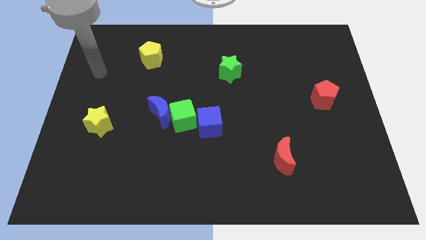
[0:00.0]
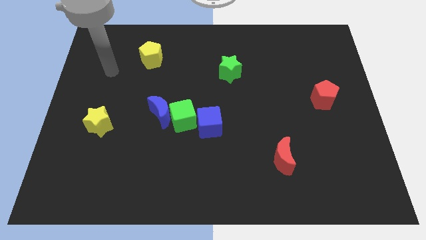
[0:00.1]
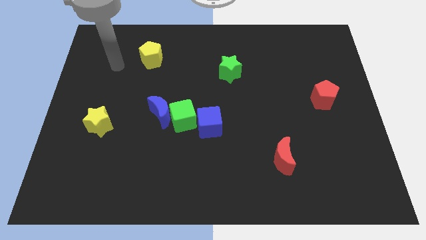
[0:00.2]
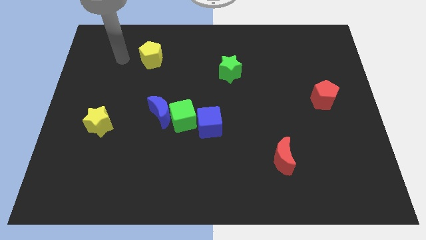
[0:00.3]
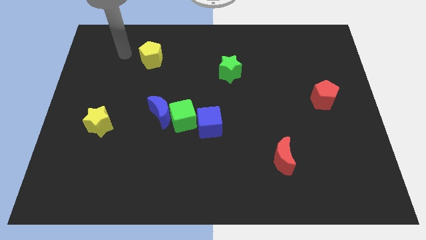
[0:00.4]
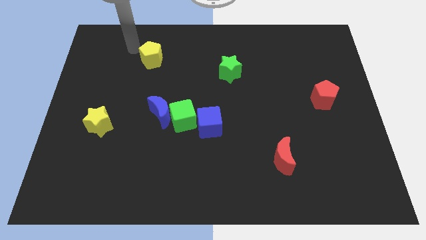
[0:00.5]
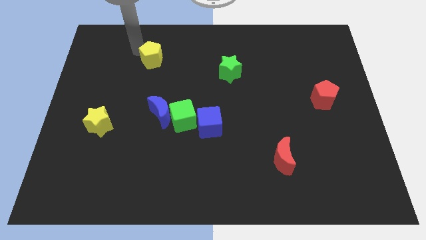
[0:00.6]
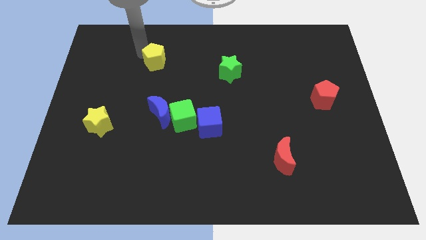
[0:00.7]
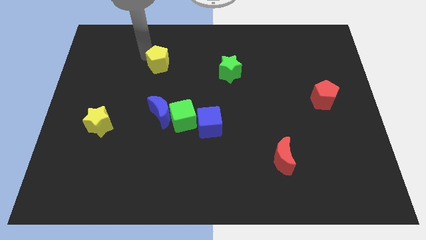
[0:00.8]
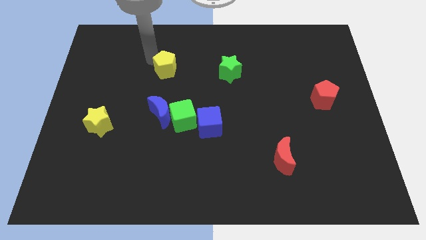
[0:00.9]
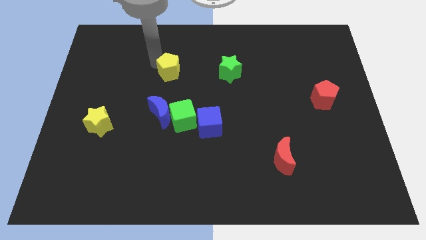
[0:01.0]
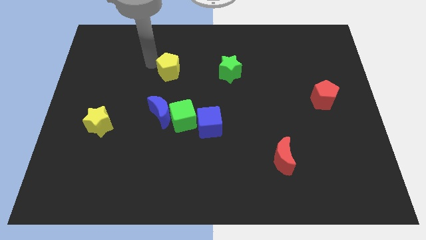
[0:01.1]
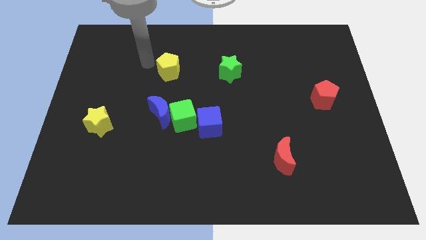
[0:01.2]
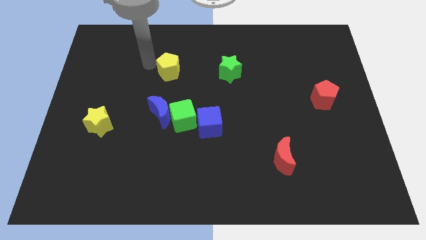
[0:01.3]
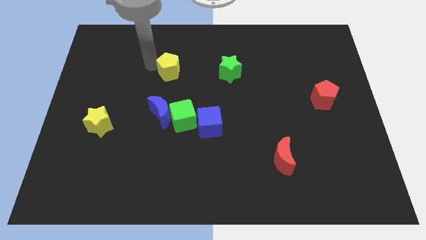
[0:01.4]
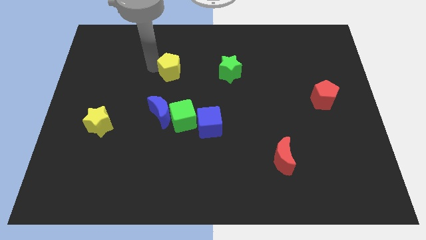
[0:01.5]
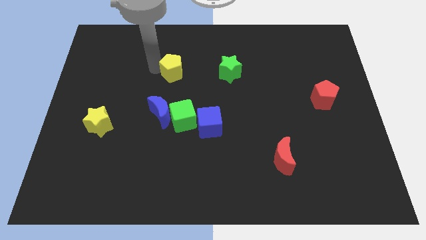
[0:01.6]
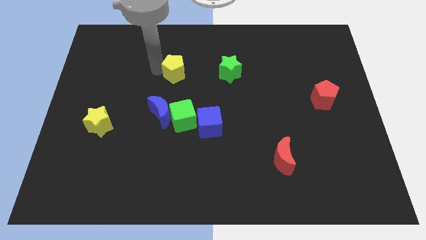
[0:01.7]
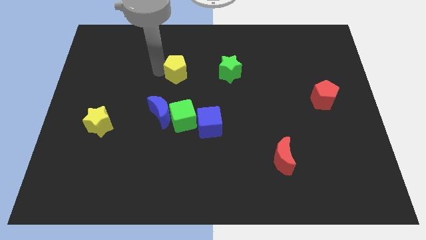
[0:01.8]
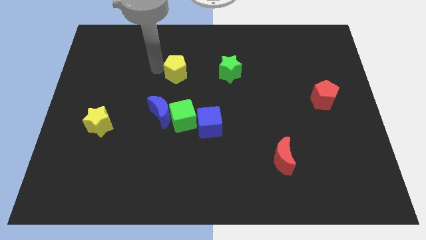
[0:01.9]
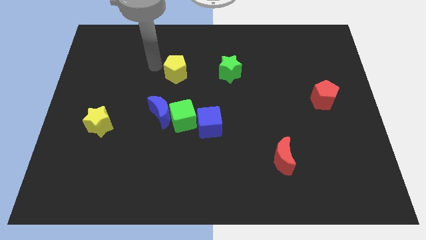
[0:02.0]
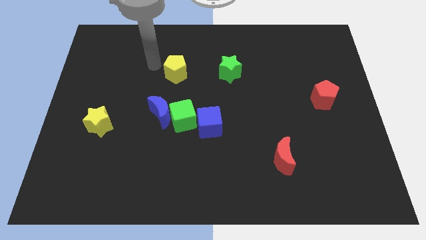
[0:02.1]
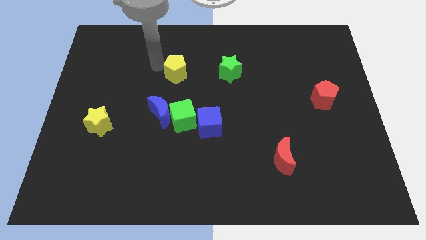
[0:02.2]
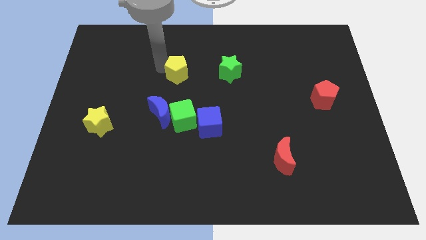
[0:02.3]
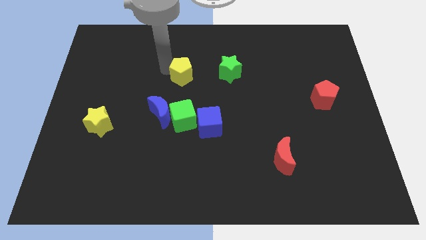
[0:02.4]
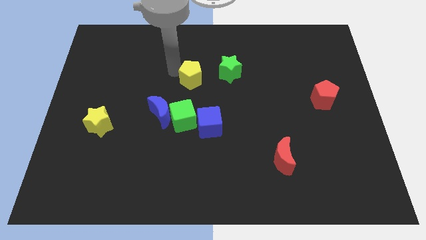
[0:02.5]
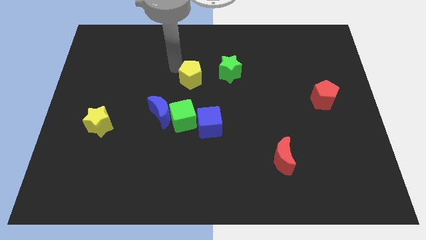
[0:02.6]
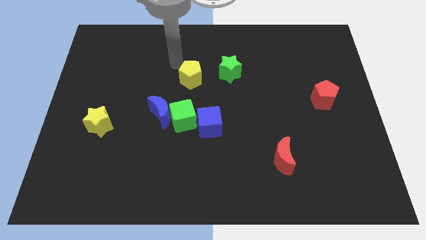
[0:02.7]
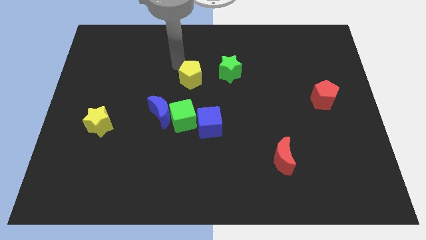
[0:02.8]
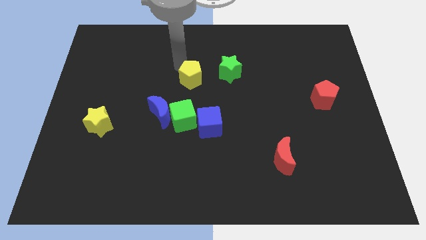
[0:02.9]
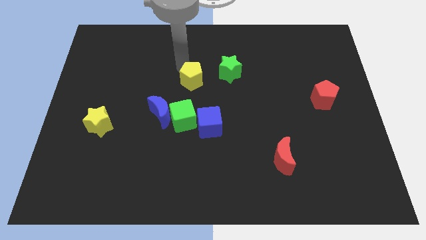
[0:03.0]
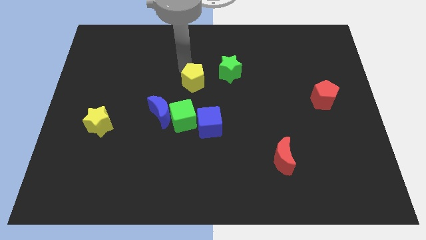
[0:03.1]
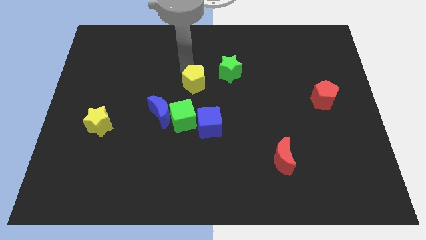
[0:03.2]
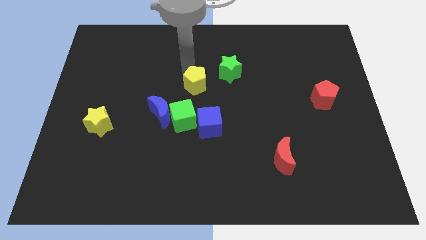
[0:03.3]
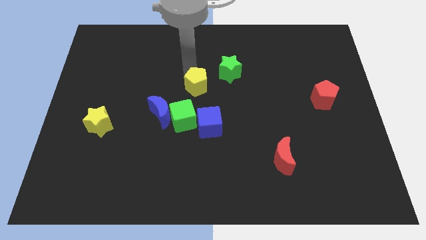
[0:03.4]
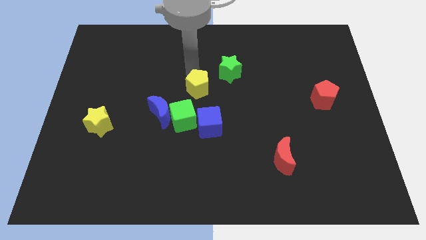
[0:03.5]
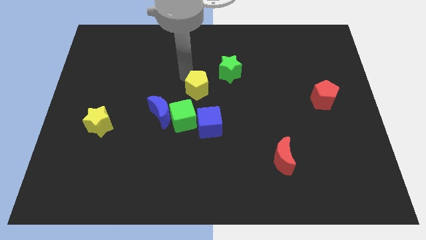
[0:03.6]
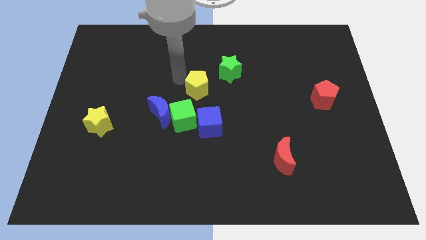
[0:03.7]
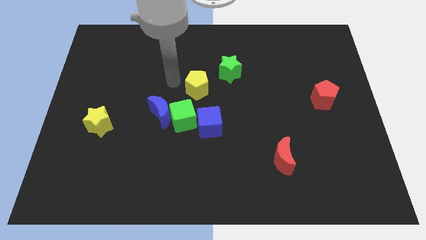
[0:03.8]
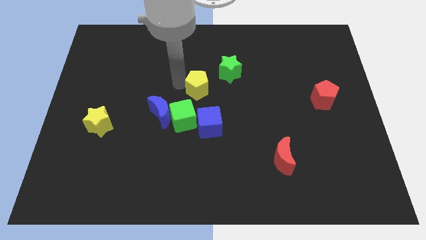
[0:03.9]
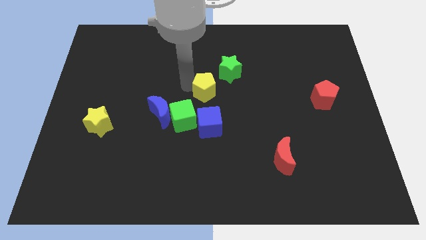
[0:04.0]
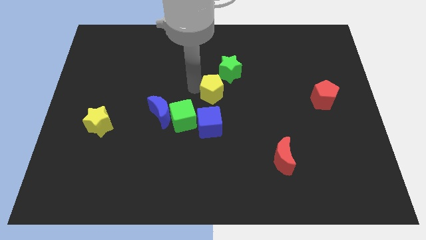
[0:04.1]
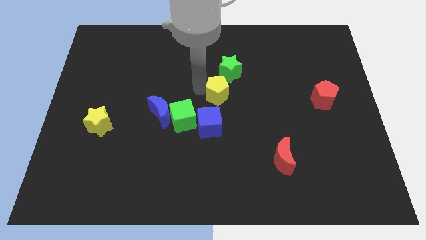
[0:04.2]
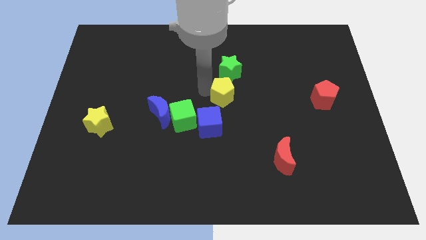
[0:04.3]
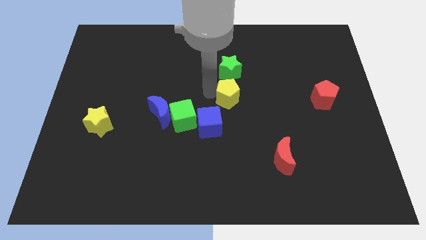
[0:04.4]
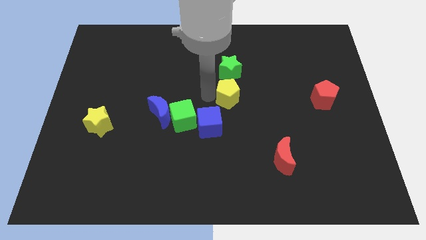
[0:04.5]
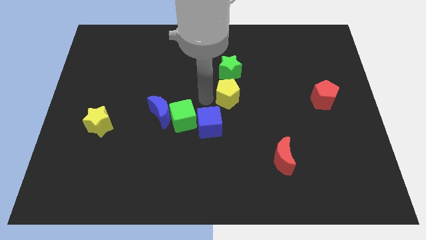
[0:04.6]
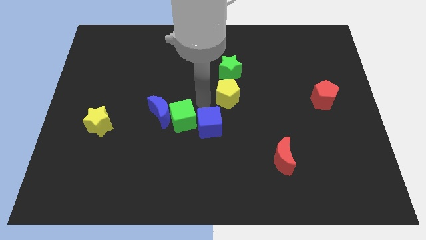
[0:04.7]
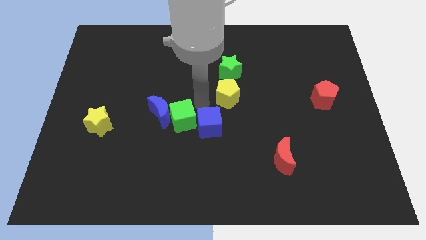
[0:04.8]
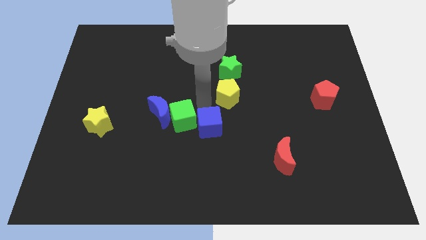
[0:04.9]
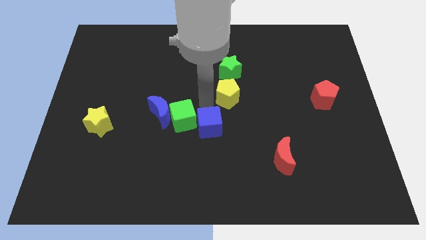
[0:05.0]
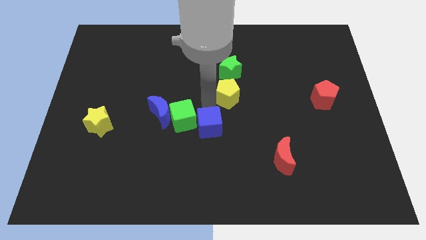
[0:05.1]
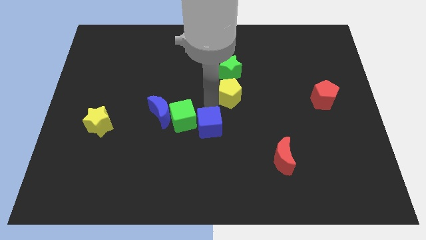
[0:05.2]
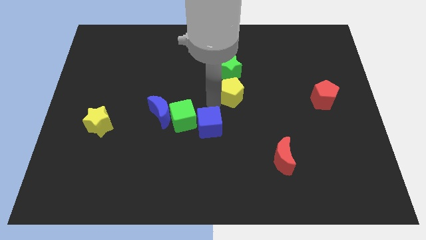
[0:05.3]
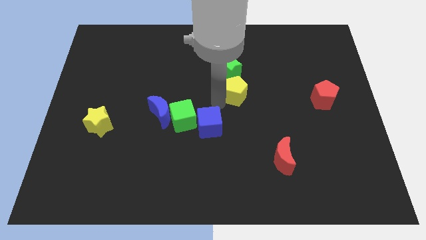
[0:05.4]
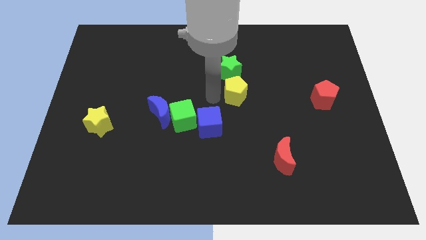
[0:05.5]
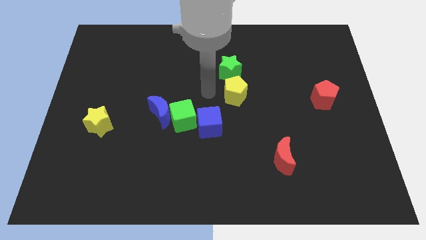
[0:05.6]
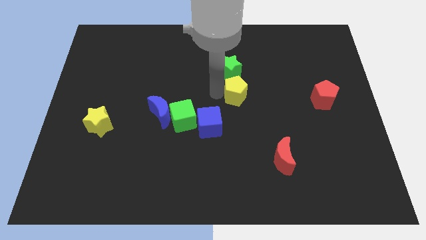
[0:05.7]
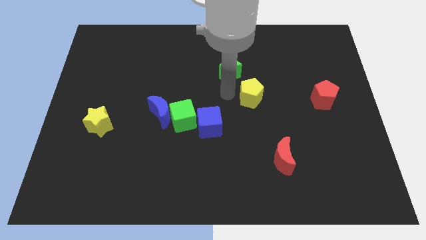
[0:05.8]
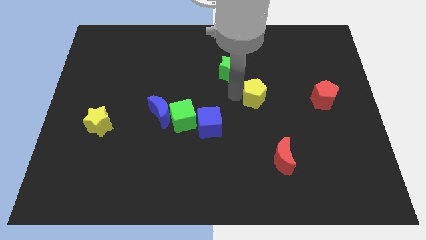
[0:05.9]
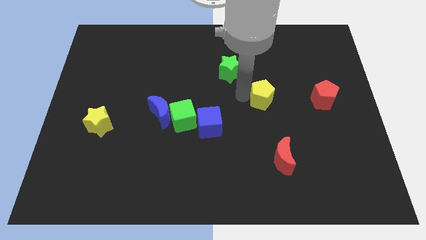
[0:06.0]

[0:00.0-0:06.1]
put the yellow pentagon left of the red pentagon

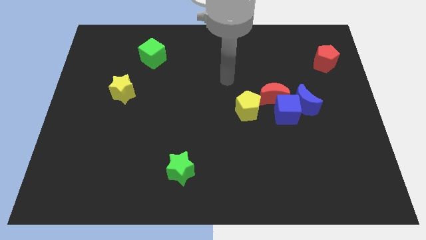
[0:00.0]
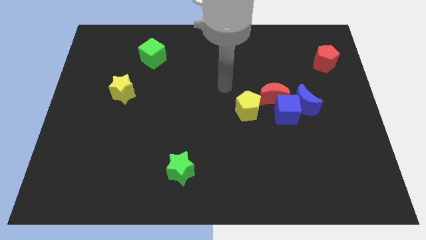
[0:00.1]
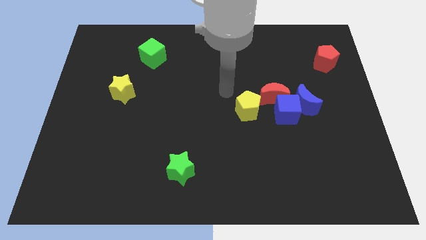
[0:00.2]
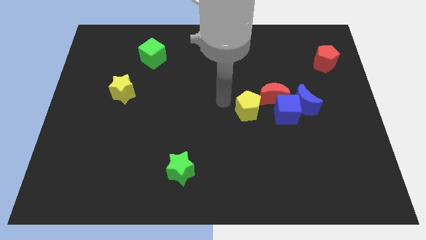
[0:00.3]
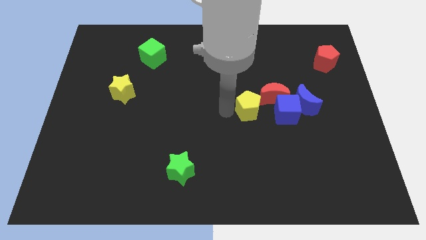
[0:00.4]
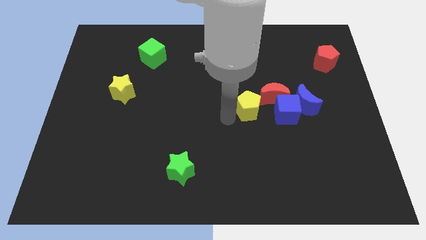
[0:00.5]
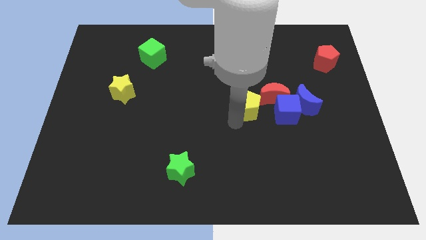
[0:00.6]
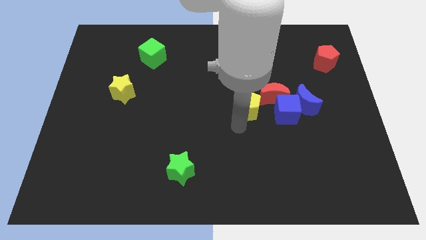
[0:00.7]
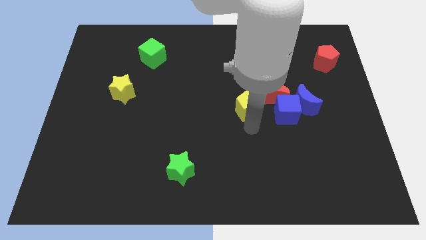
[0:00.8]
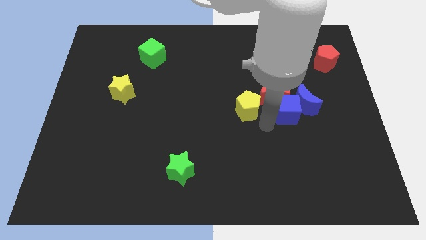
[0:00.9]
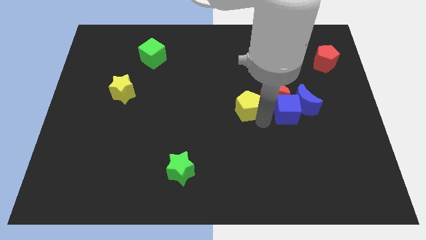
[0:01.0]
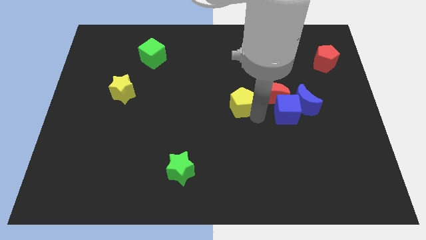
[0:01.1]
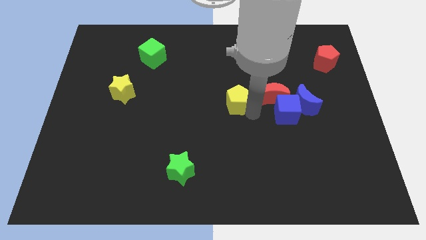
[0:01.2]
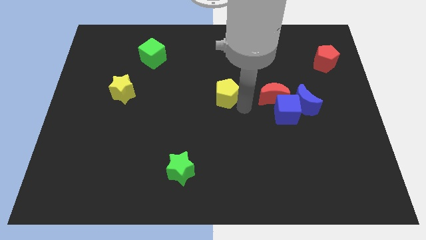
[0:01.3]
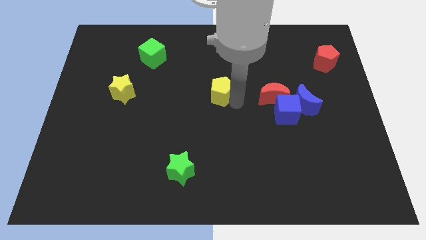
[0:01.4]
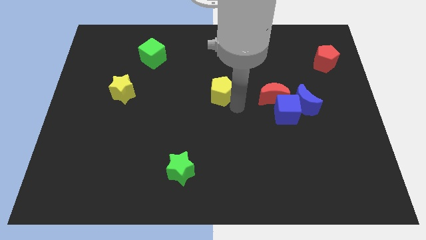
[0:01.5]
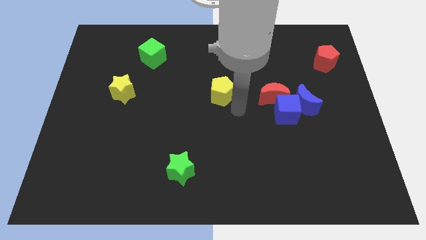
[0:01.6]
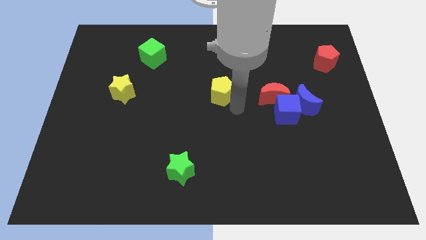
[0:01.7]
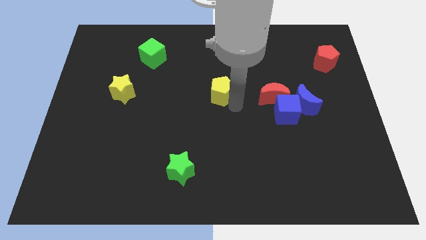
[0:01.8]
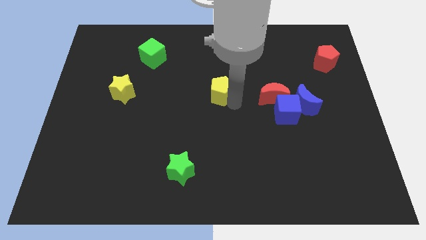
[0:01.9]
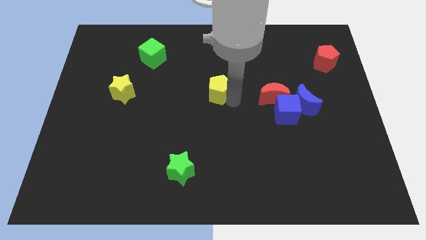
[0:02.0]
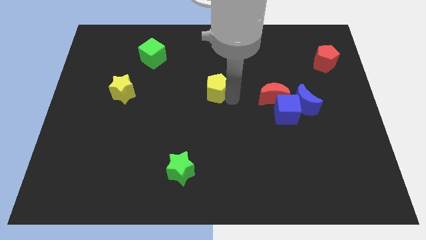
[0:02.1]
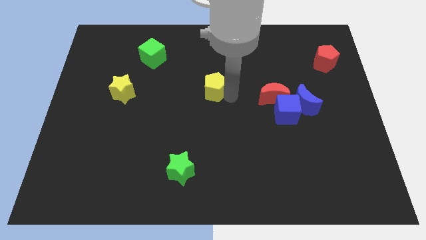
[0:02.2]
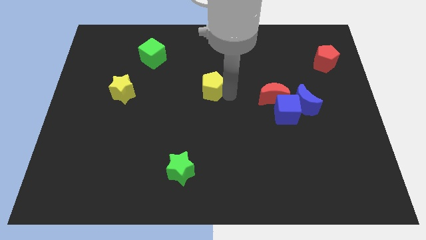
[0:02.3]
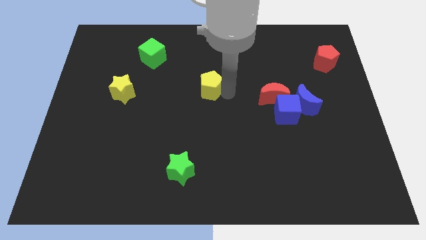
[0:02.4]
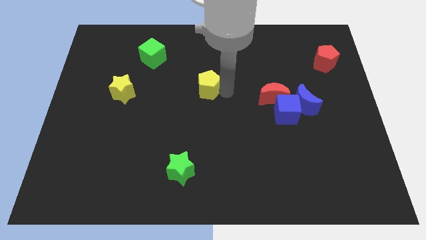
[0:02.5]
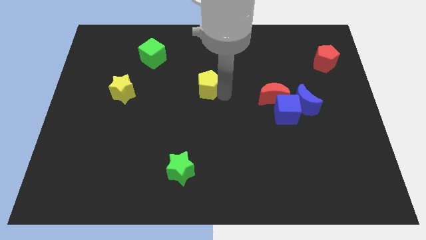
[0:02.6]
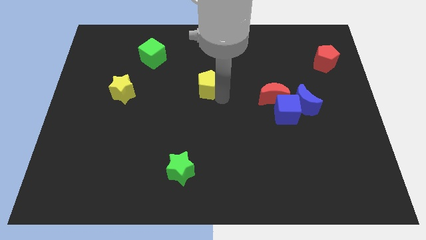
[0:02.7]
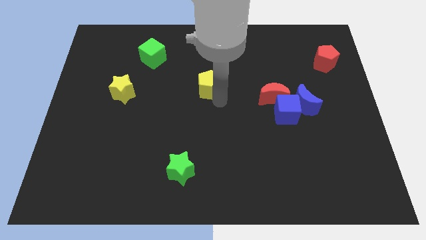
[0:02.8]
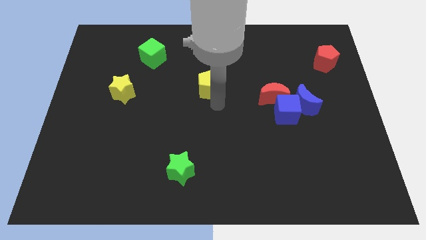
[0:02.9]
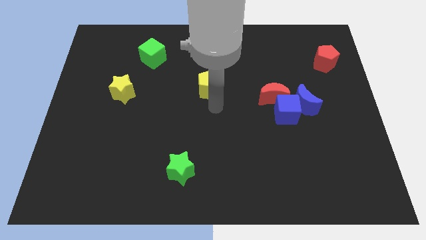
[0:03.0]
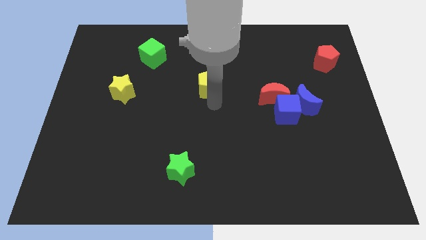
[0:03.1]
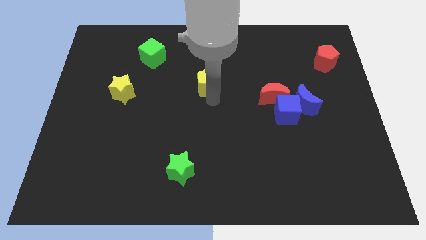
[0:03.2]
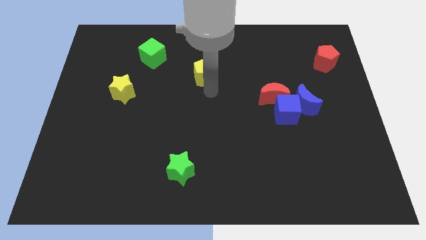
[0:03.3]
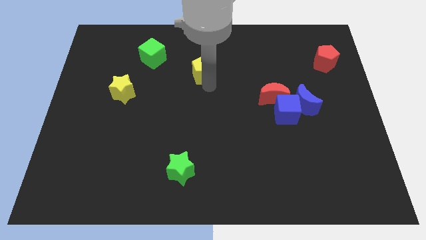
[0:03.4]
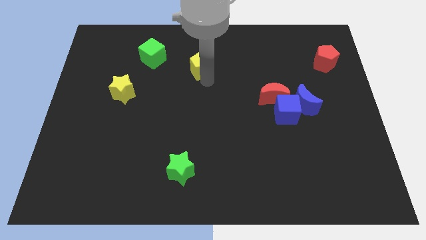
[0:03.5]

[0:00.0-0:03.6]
move the yellow pentagon to the right of the green cube
